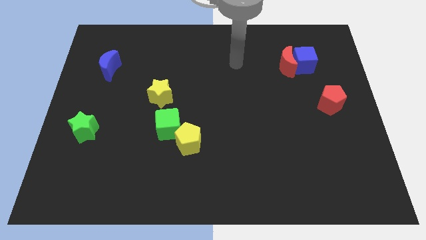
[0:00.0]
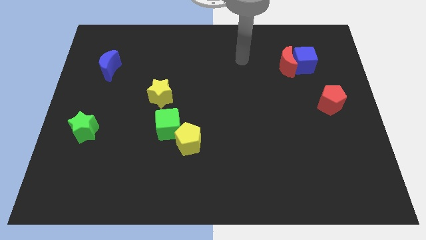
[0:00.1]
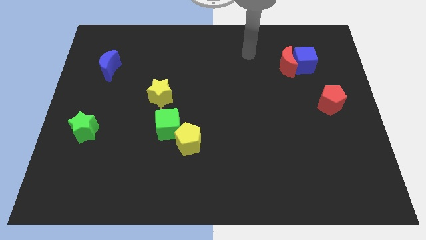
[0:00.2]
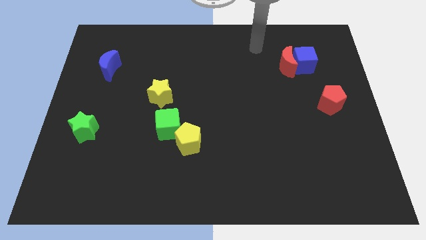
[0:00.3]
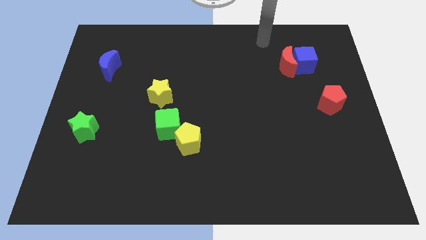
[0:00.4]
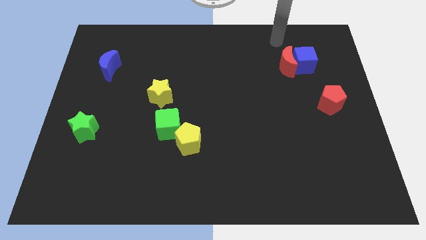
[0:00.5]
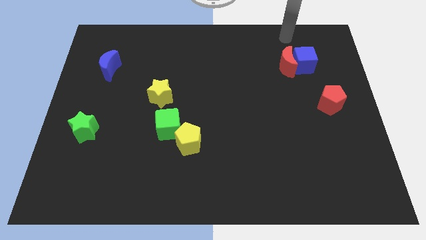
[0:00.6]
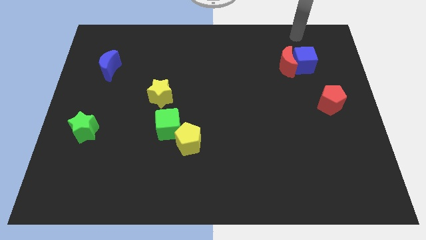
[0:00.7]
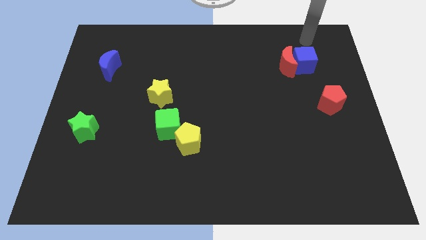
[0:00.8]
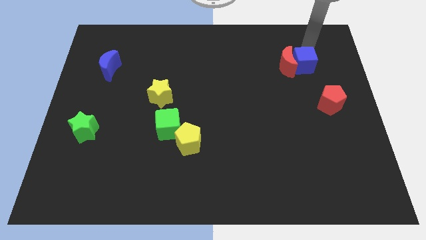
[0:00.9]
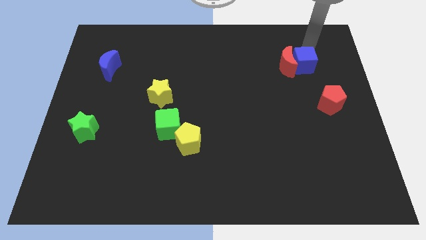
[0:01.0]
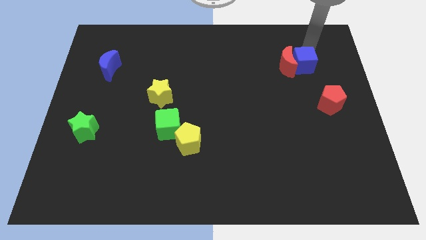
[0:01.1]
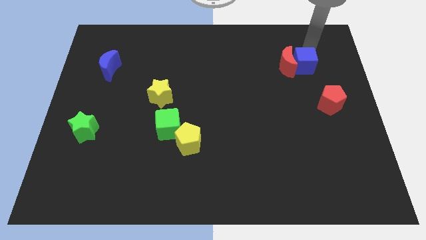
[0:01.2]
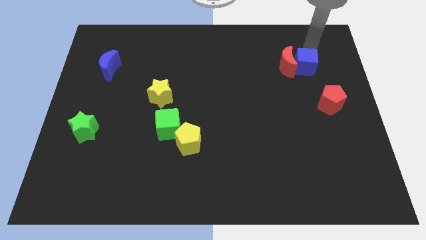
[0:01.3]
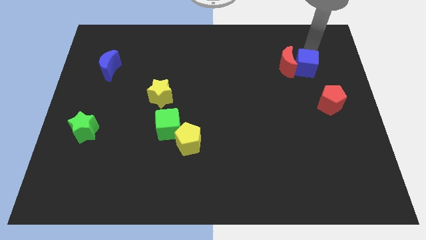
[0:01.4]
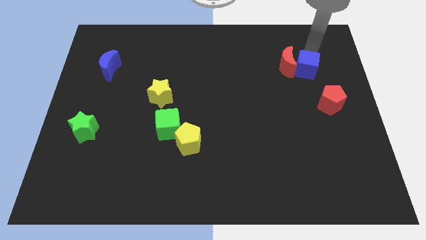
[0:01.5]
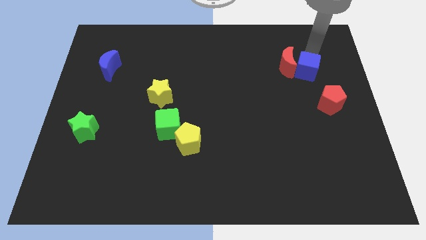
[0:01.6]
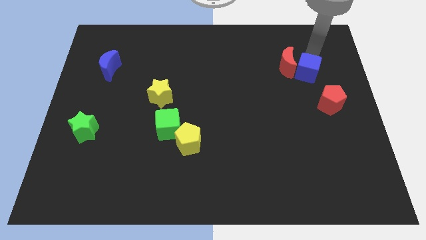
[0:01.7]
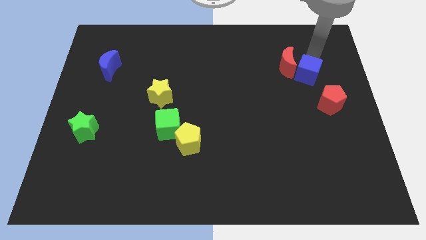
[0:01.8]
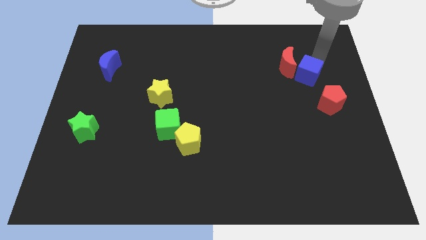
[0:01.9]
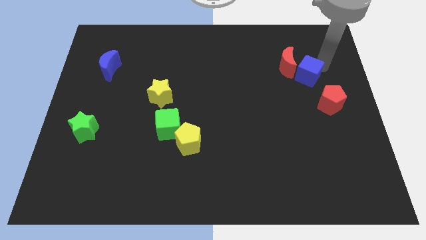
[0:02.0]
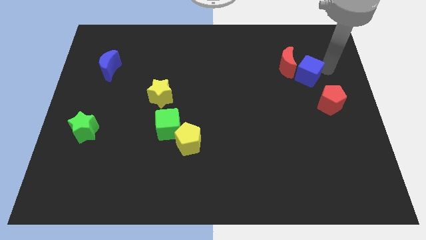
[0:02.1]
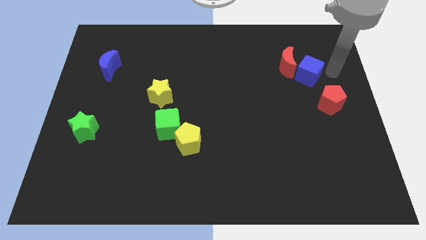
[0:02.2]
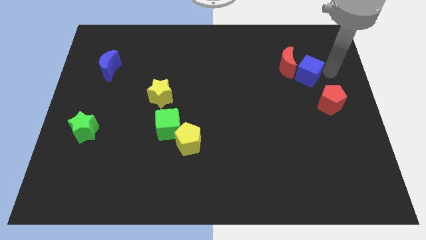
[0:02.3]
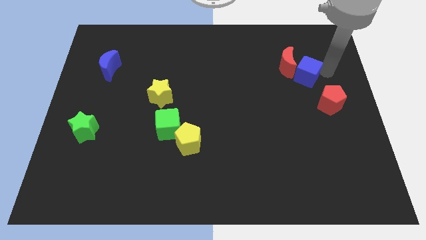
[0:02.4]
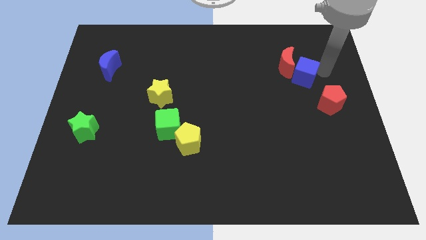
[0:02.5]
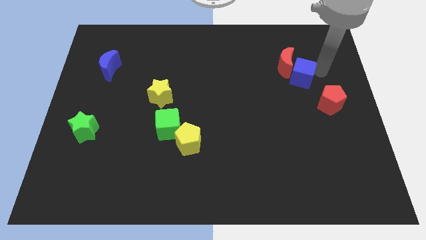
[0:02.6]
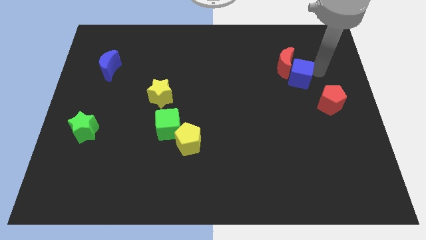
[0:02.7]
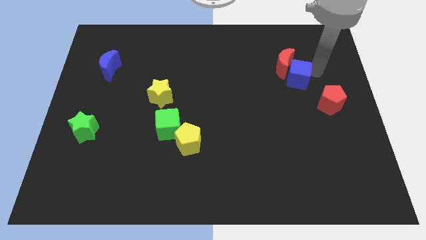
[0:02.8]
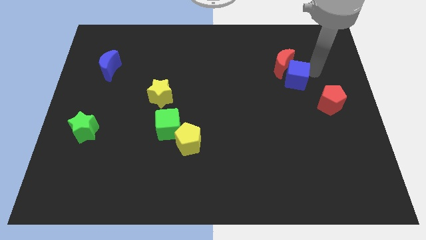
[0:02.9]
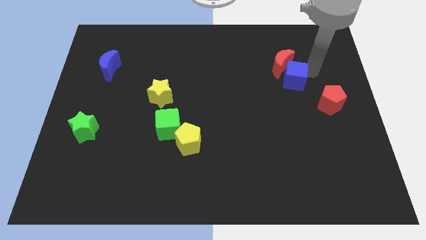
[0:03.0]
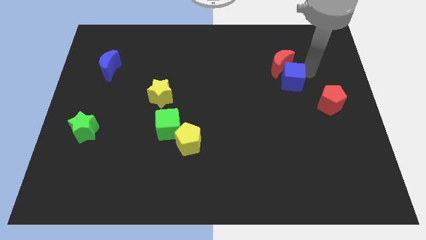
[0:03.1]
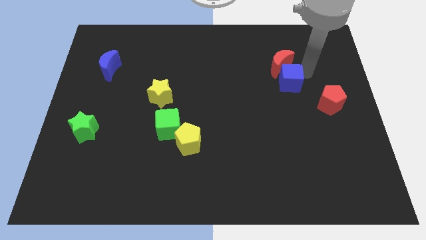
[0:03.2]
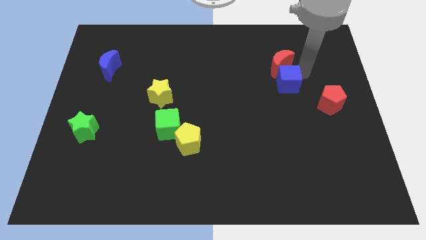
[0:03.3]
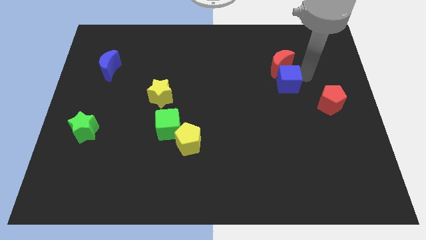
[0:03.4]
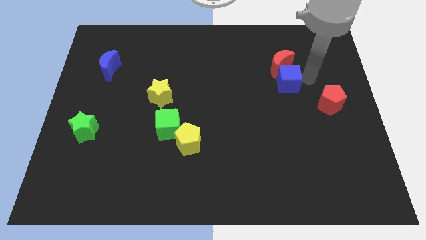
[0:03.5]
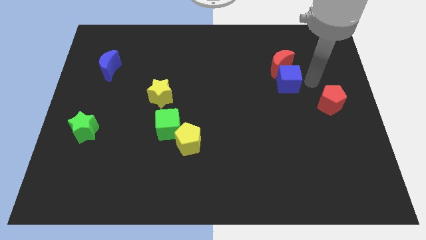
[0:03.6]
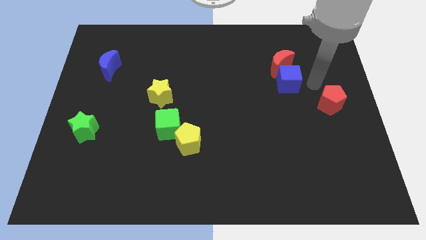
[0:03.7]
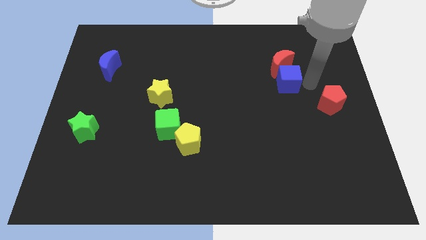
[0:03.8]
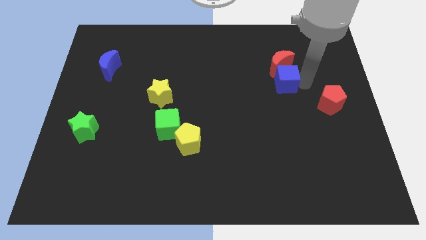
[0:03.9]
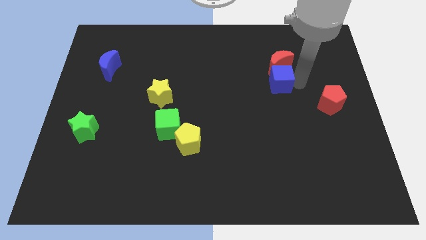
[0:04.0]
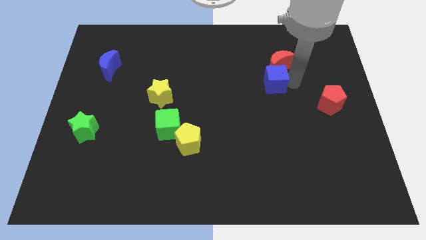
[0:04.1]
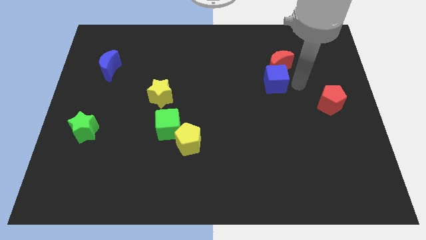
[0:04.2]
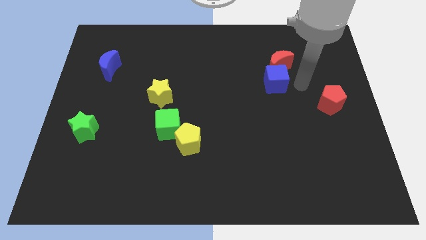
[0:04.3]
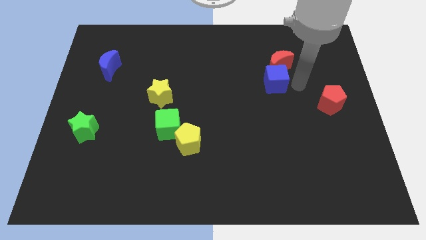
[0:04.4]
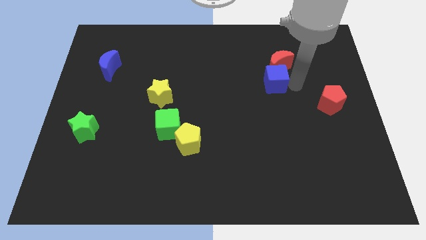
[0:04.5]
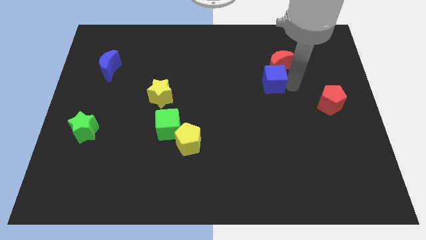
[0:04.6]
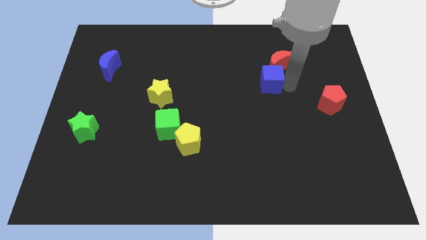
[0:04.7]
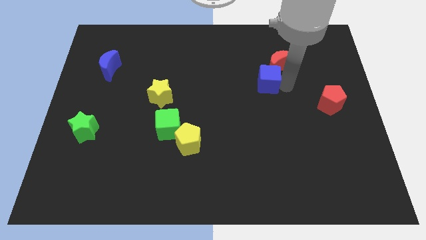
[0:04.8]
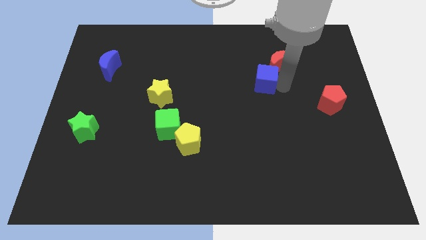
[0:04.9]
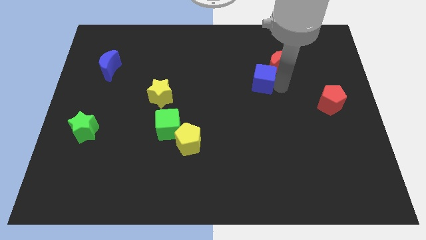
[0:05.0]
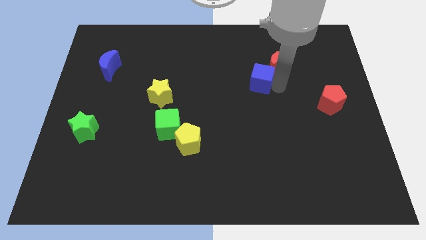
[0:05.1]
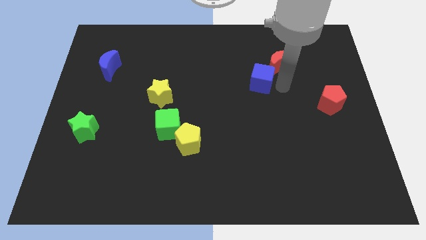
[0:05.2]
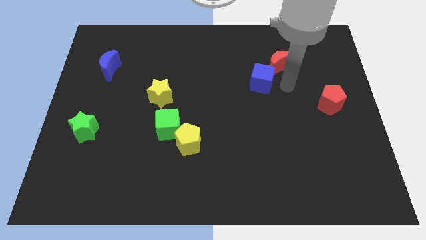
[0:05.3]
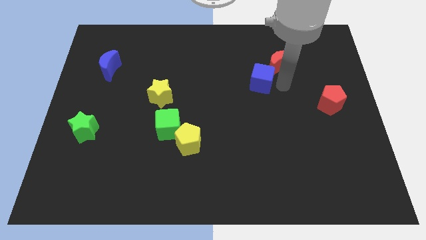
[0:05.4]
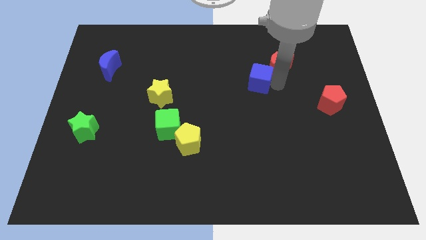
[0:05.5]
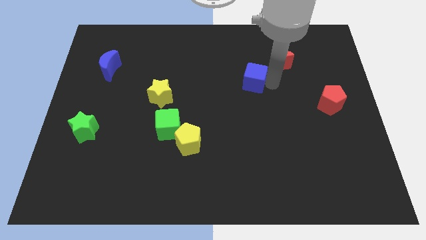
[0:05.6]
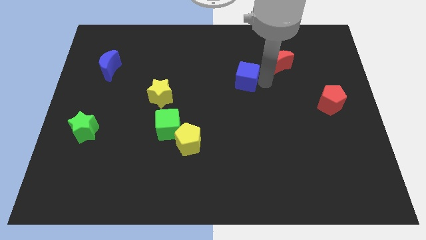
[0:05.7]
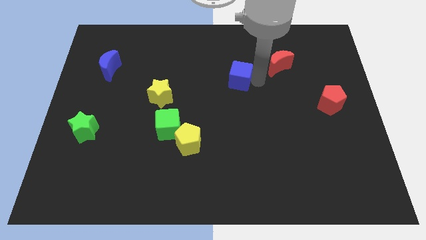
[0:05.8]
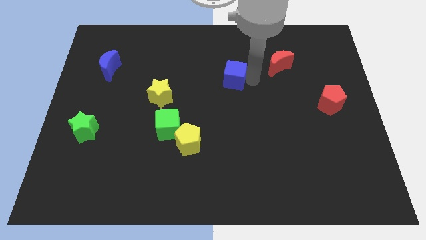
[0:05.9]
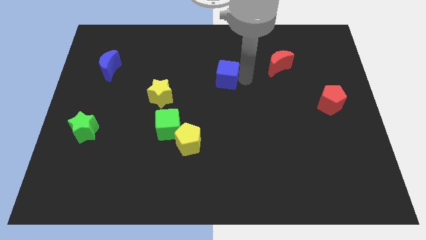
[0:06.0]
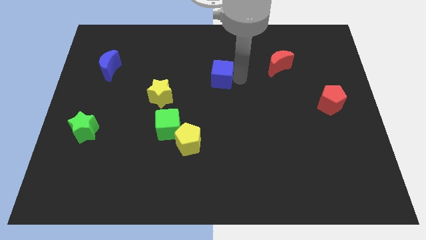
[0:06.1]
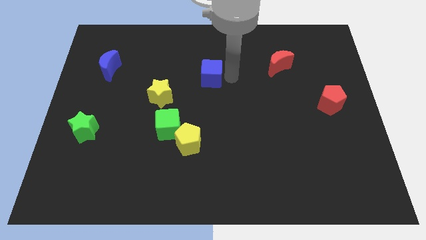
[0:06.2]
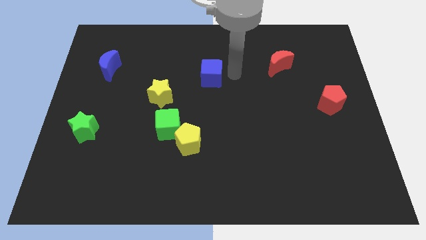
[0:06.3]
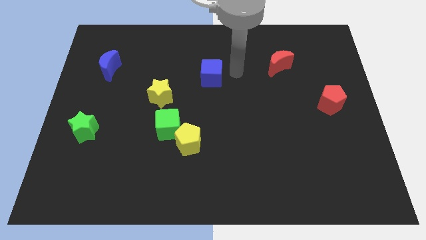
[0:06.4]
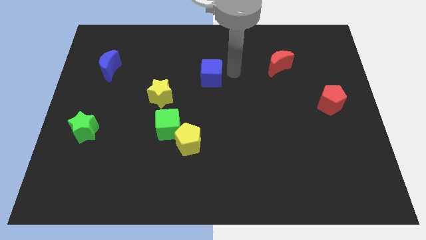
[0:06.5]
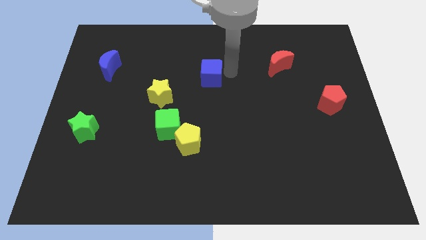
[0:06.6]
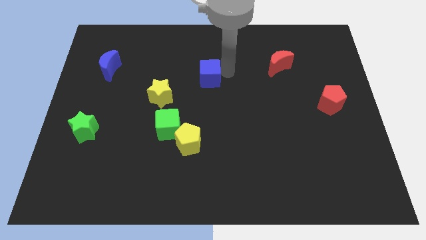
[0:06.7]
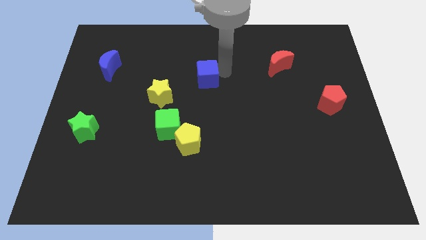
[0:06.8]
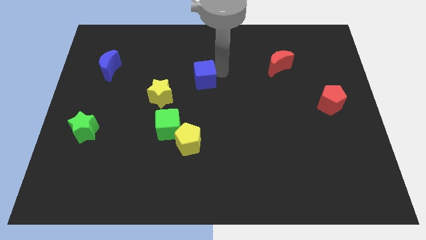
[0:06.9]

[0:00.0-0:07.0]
move the blue cube diagonally up and to the right of the yellow star
